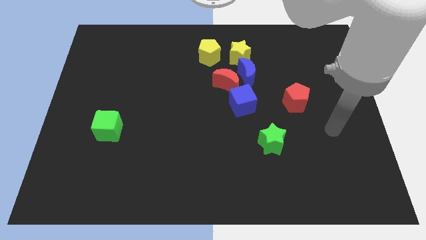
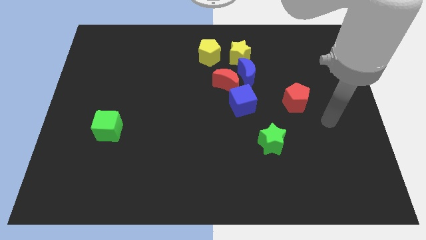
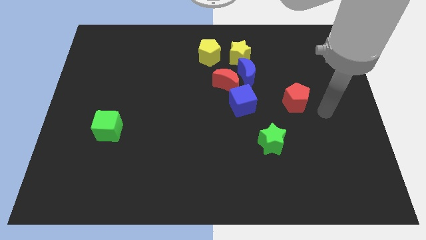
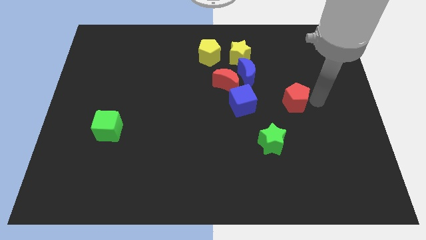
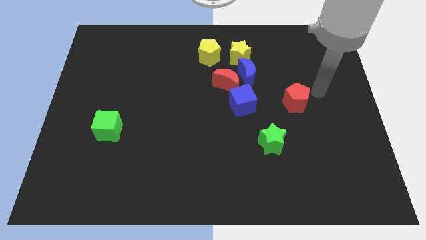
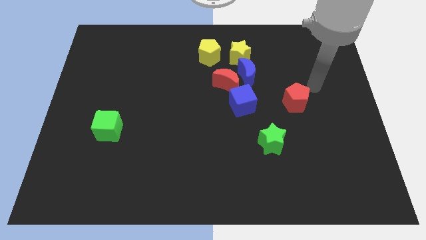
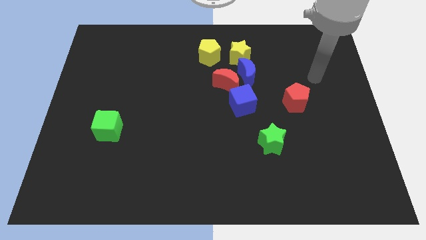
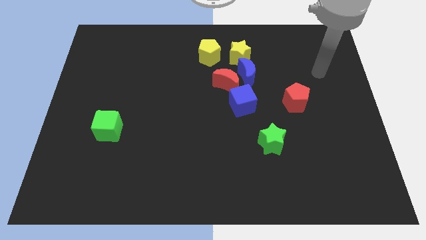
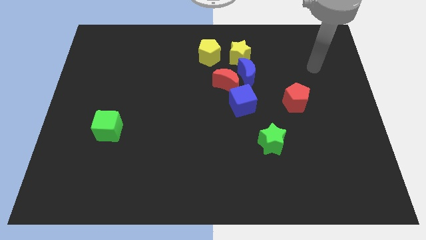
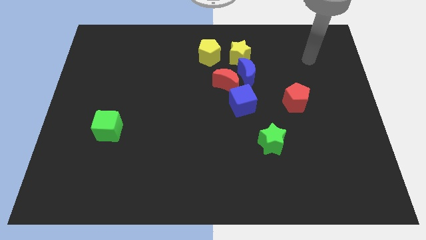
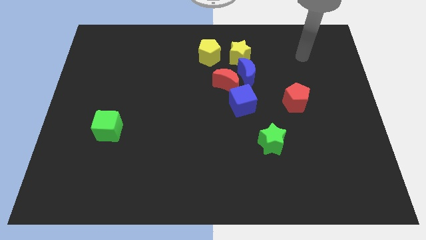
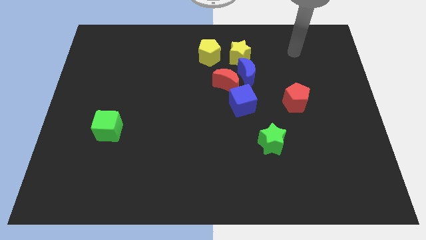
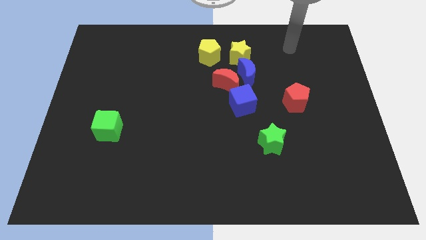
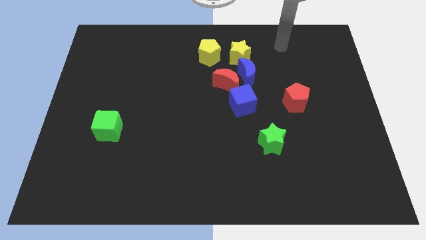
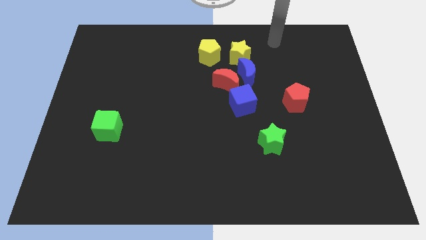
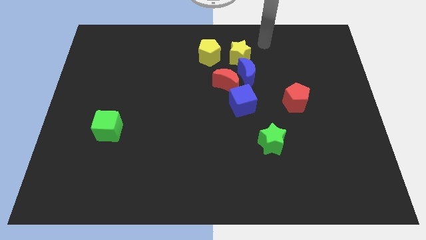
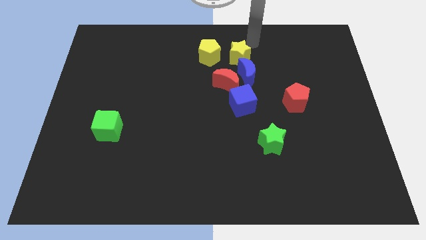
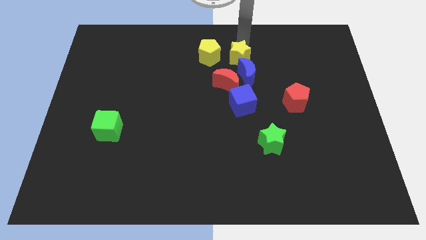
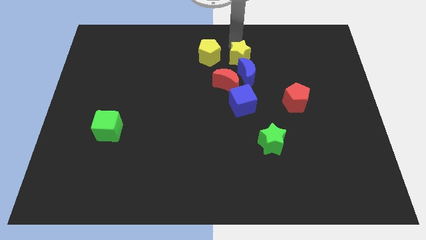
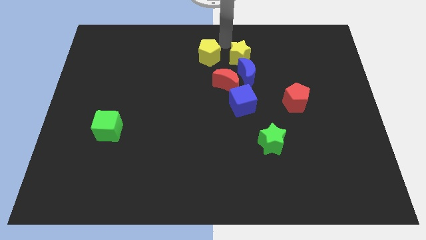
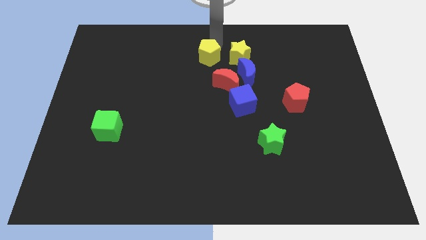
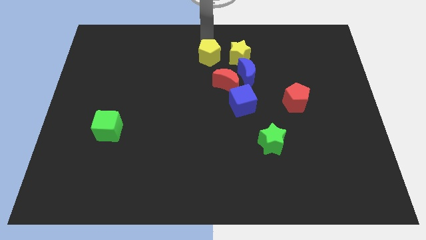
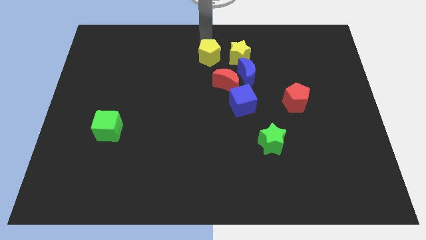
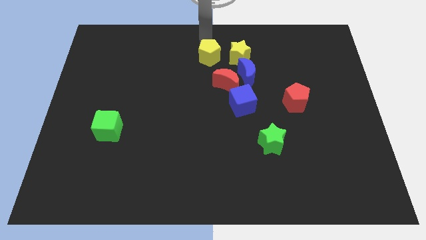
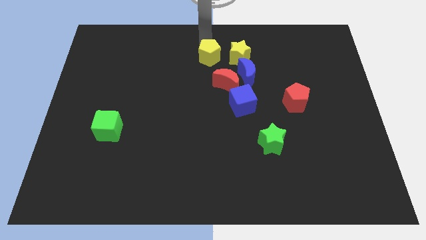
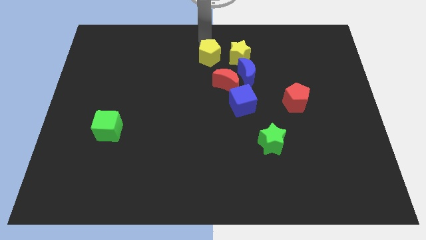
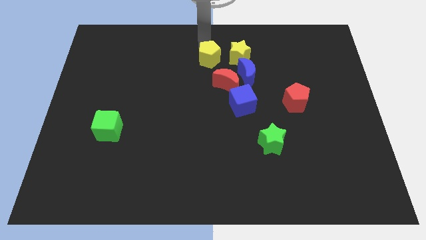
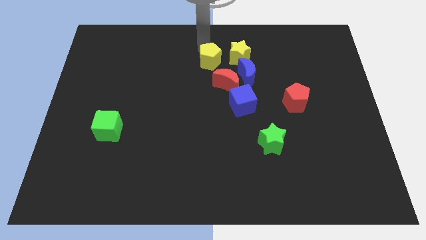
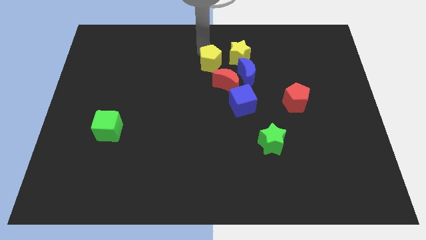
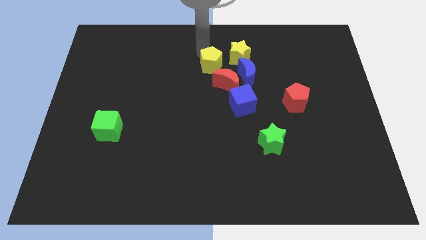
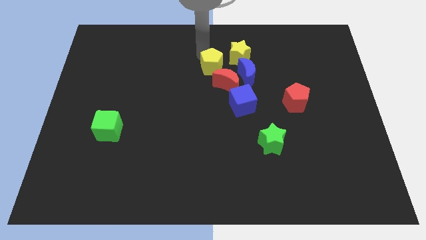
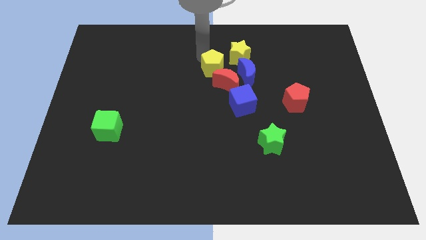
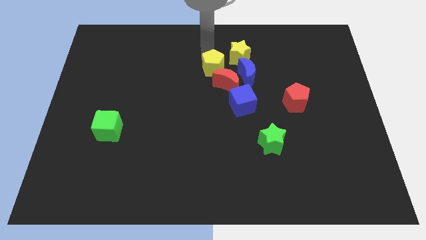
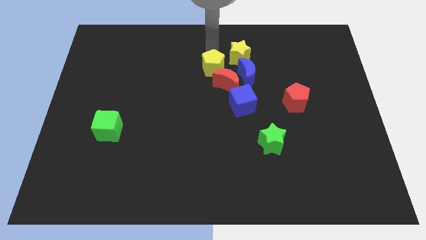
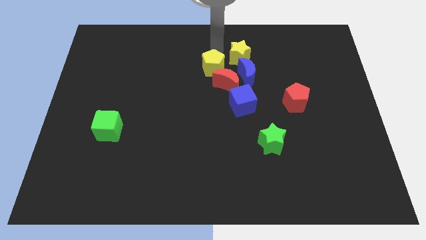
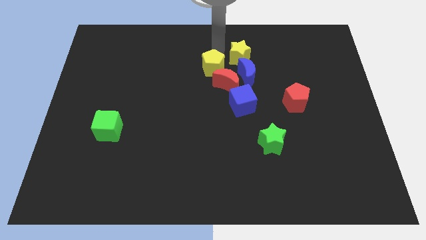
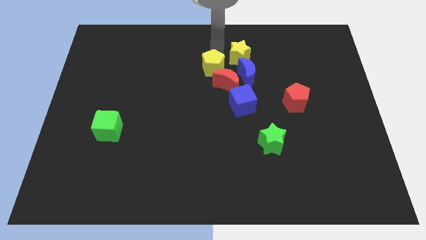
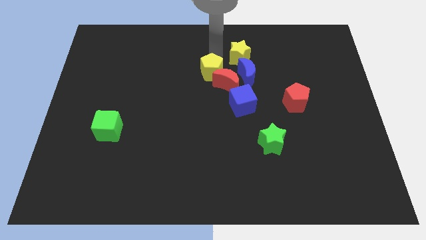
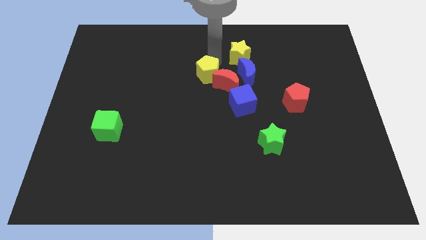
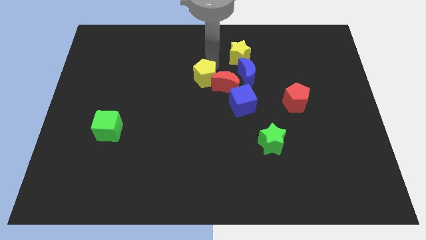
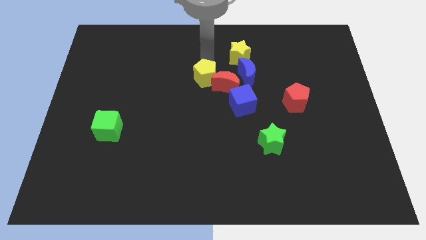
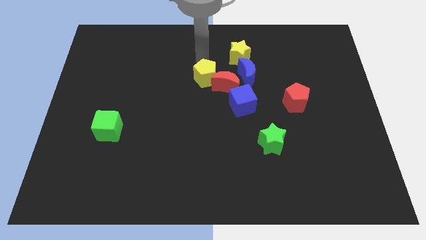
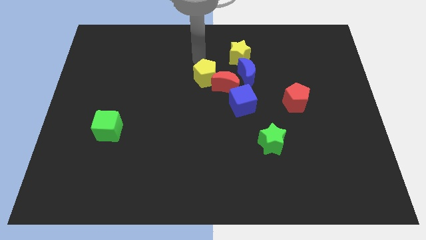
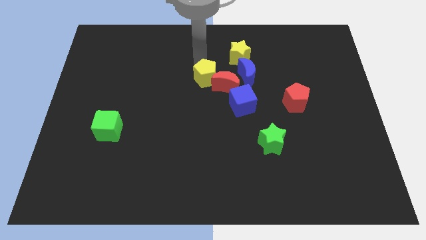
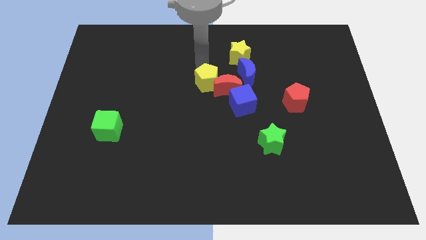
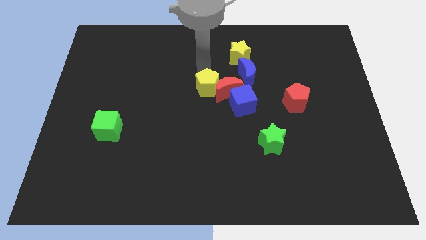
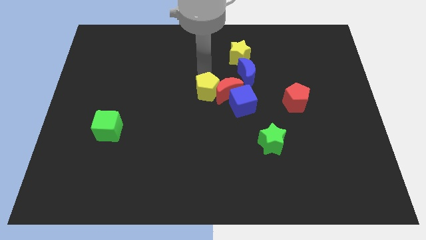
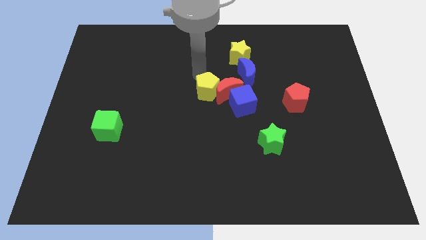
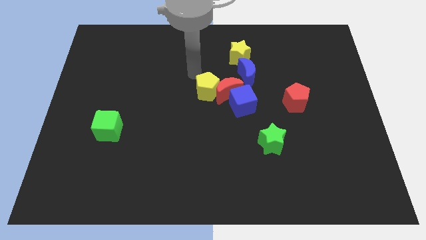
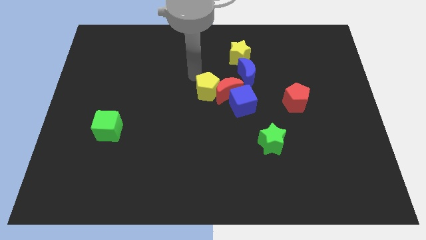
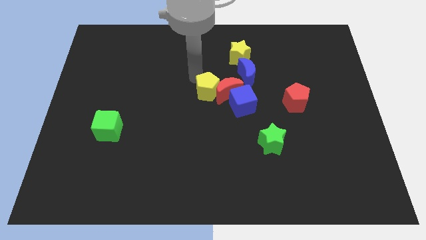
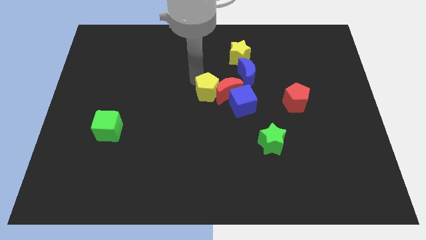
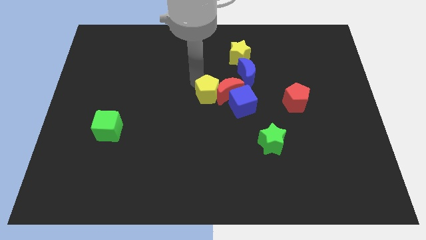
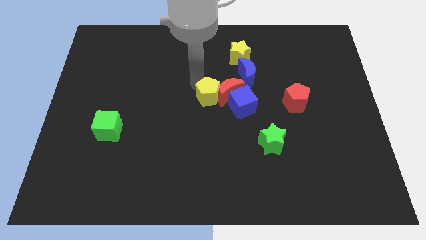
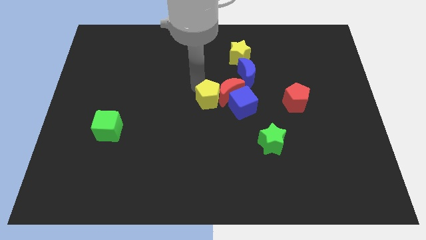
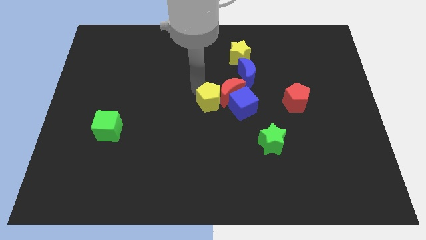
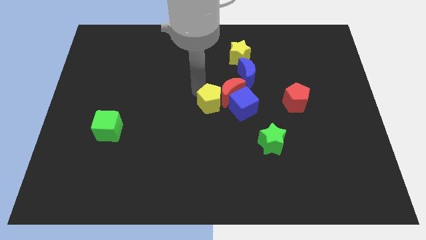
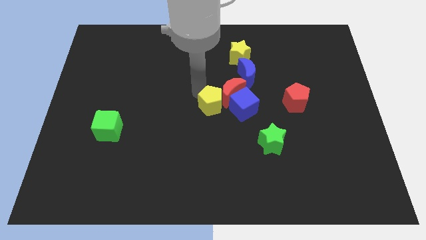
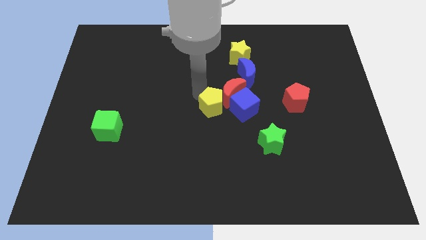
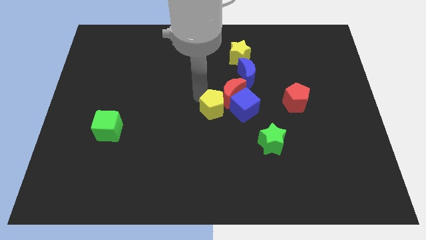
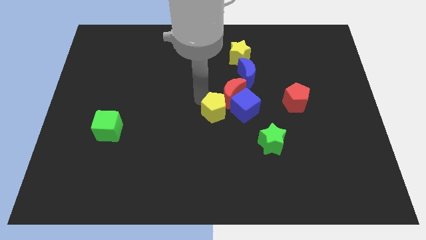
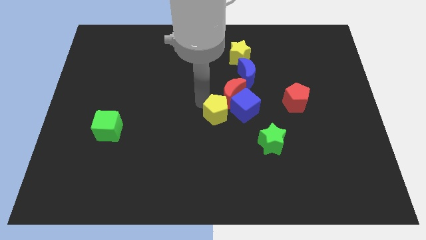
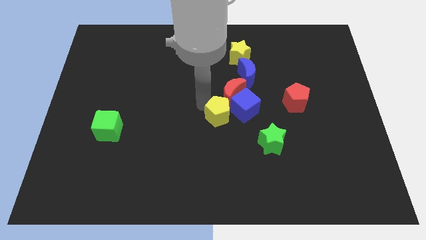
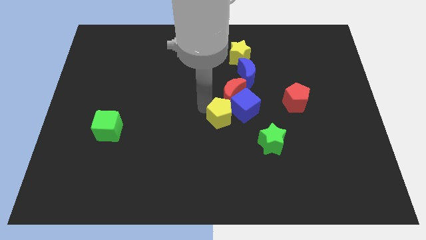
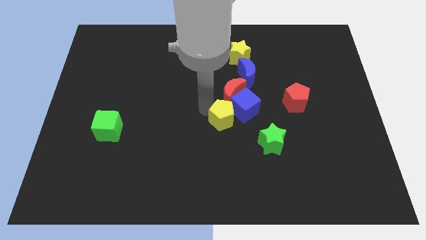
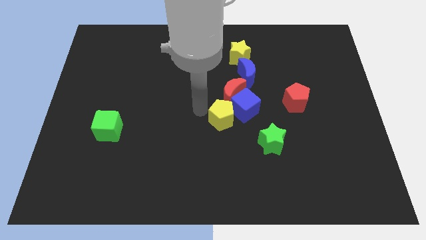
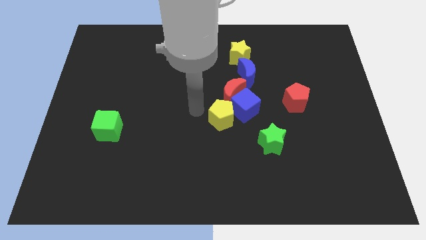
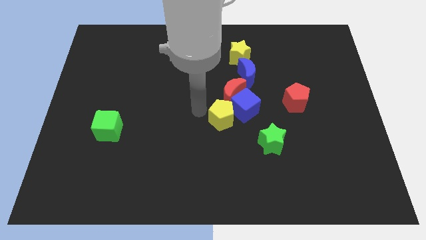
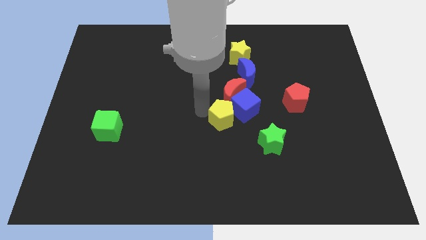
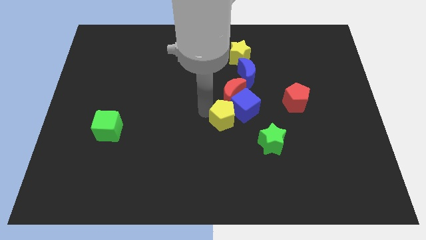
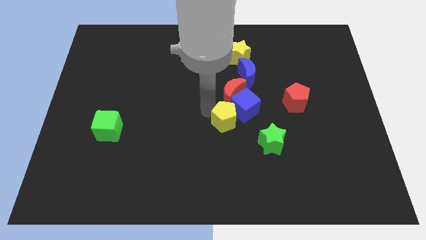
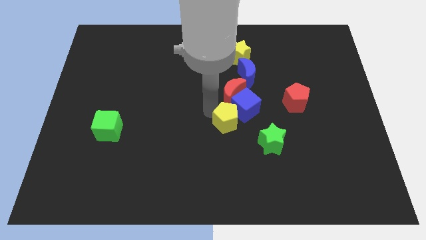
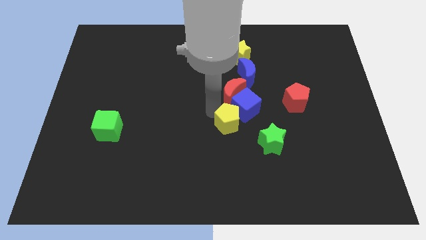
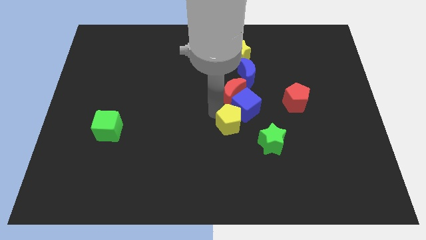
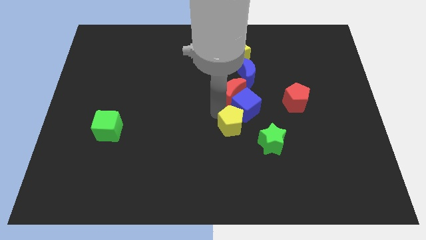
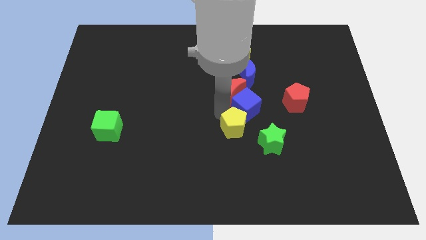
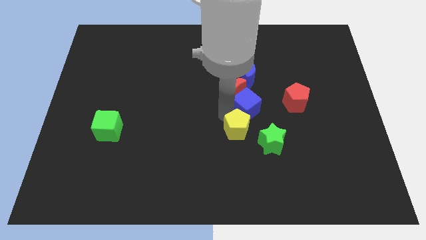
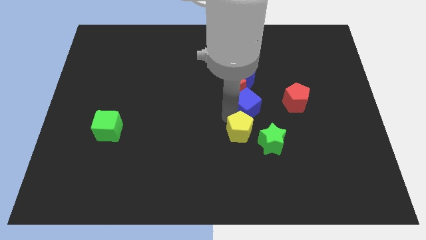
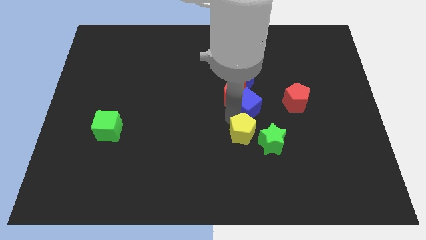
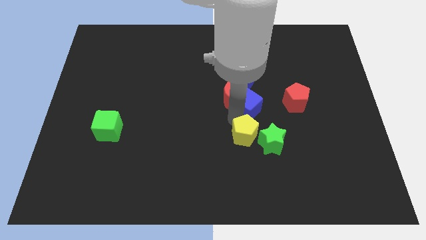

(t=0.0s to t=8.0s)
slide the yellow pentagon close to the green star

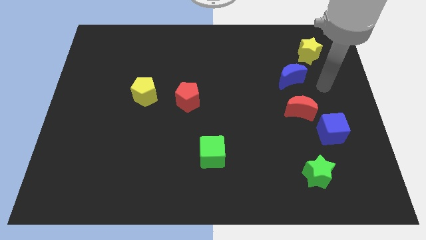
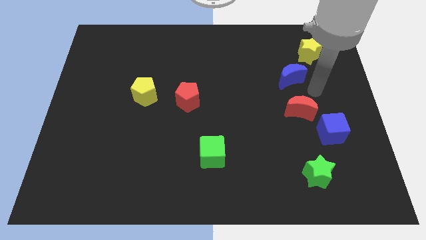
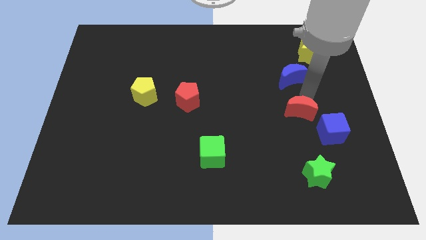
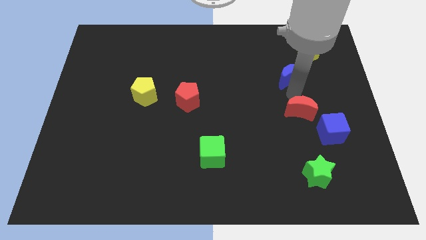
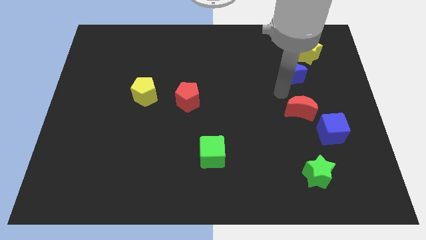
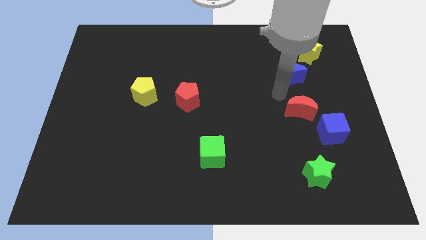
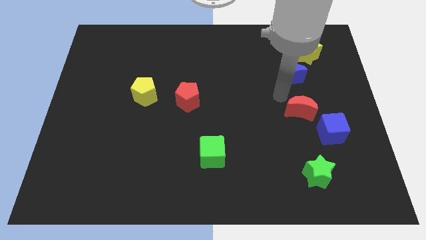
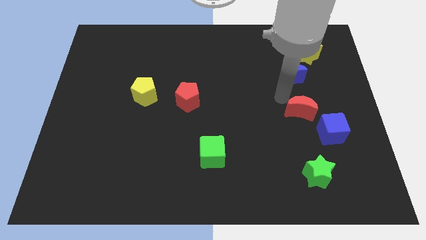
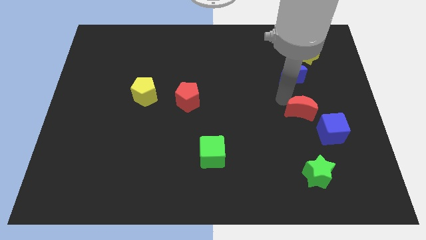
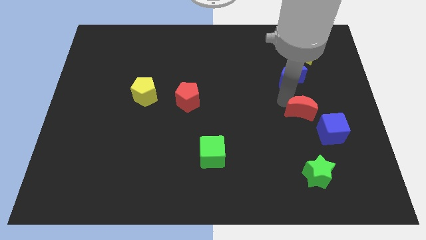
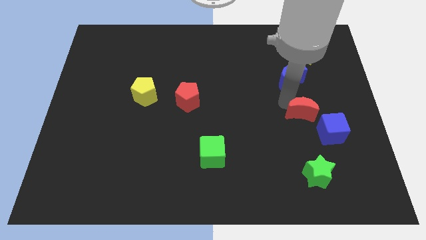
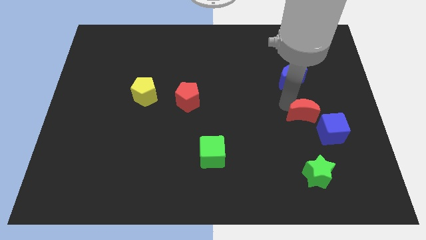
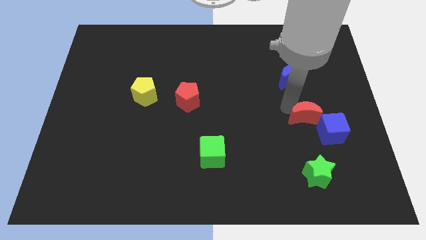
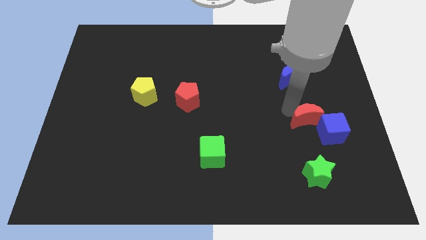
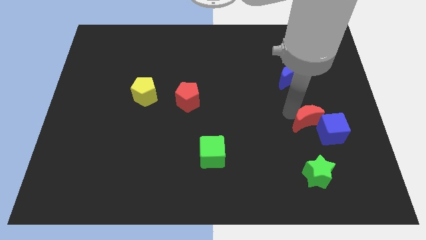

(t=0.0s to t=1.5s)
push the red moon towards the blue cube
